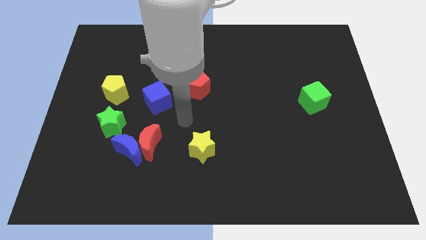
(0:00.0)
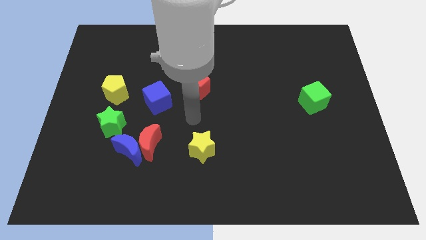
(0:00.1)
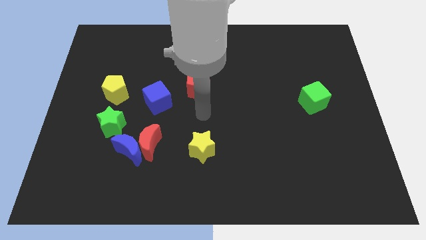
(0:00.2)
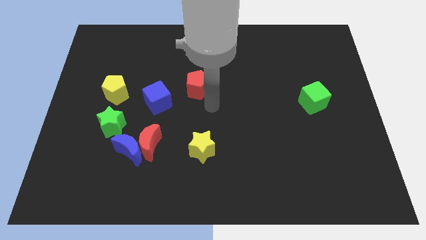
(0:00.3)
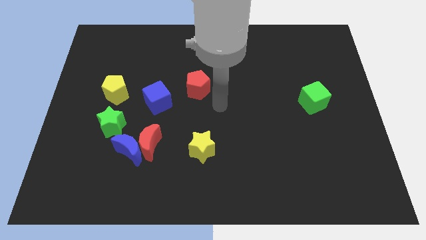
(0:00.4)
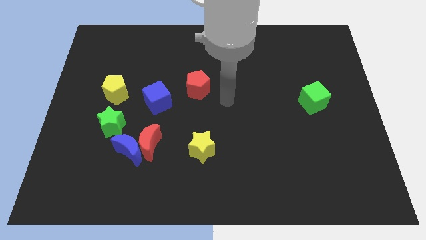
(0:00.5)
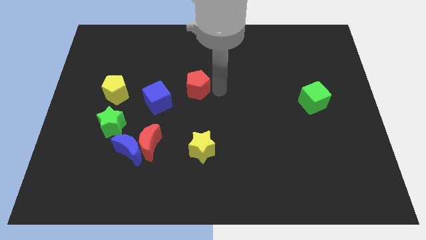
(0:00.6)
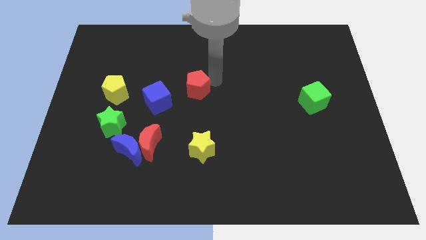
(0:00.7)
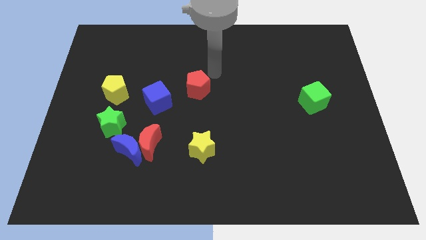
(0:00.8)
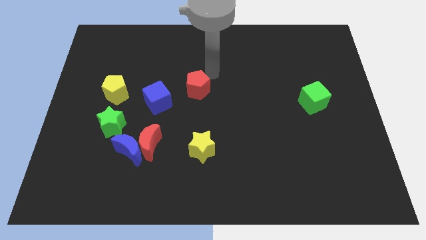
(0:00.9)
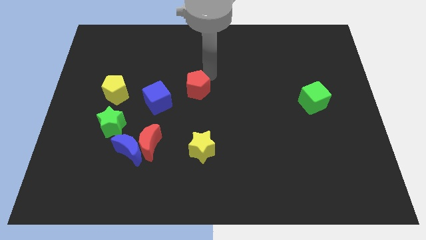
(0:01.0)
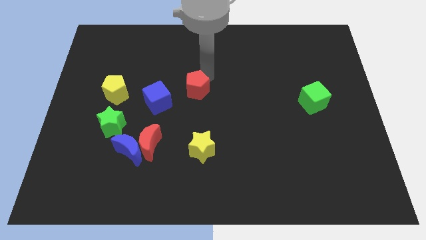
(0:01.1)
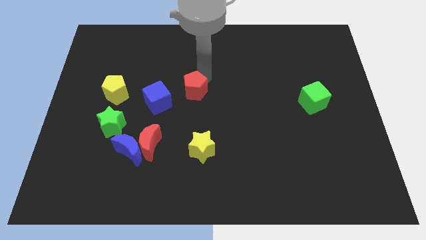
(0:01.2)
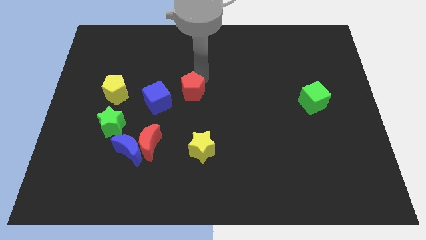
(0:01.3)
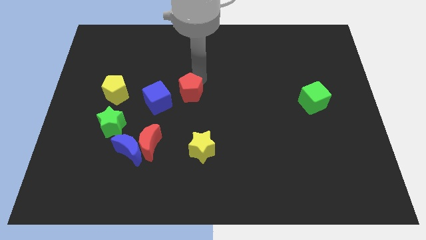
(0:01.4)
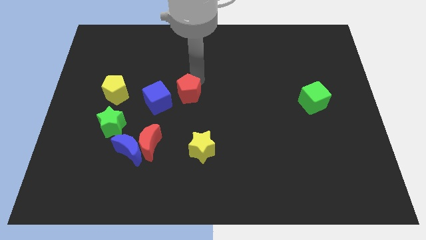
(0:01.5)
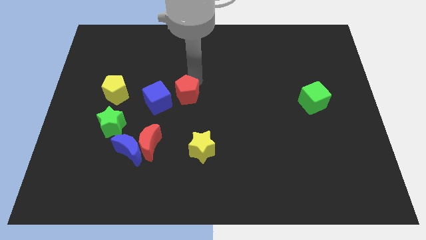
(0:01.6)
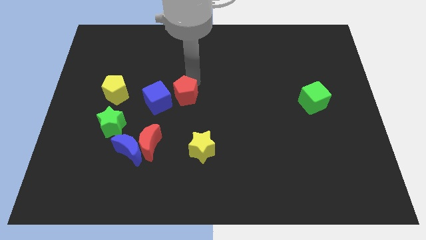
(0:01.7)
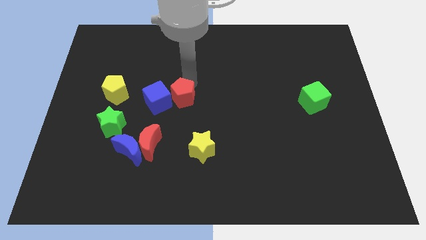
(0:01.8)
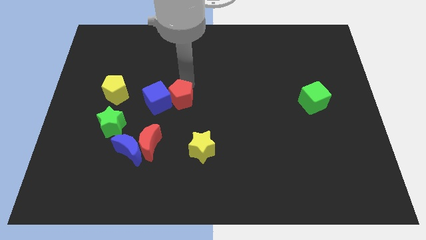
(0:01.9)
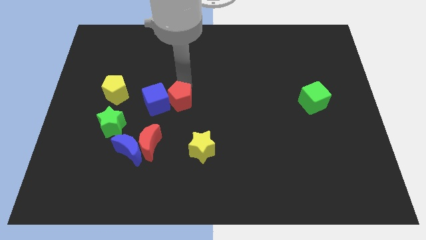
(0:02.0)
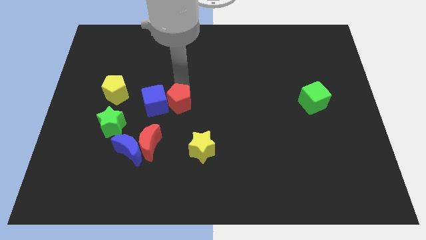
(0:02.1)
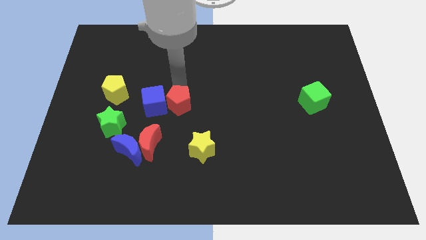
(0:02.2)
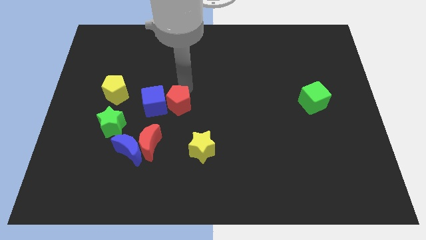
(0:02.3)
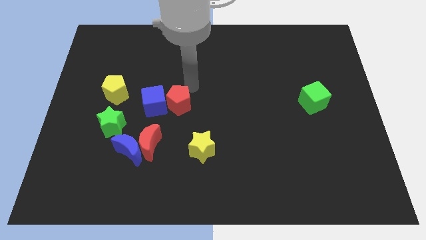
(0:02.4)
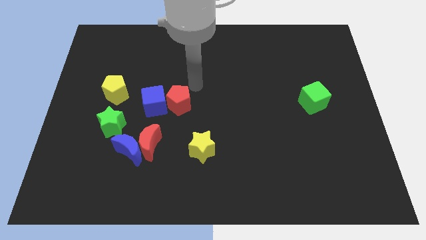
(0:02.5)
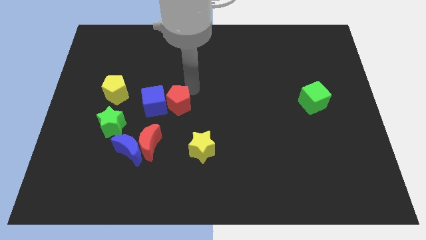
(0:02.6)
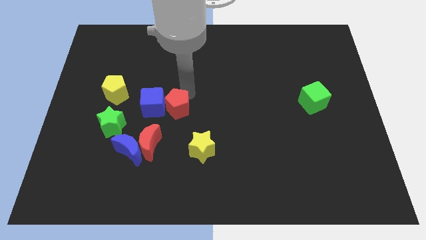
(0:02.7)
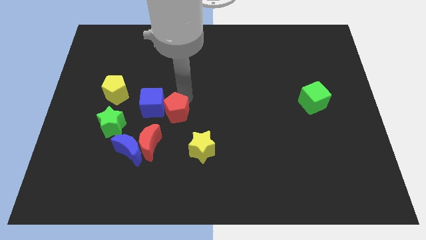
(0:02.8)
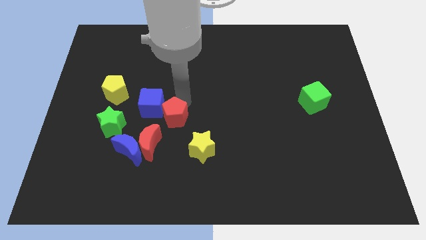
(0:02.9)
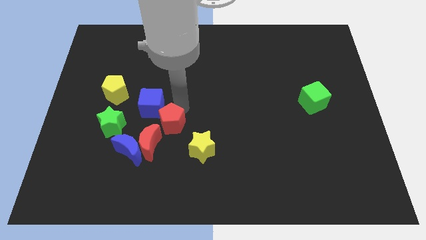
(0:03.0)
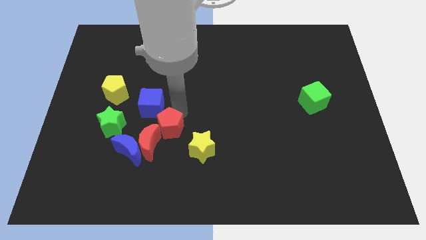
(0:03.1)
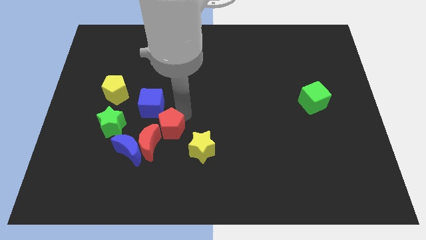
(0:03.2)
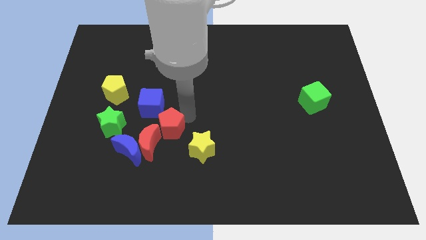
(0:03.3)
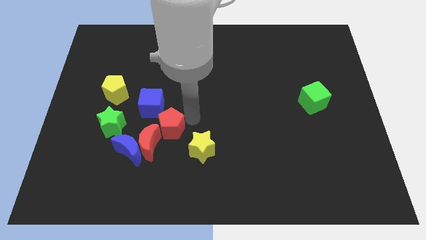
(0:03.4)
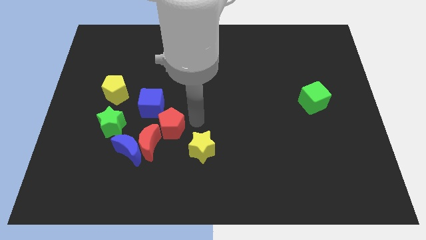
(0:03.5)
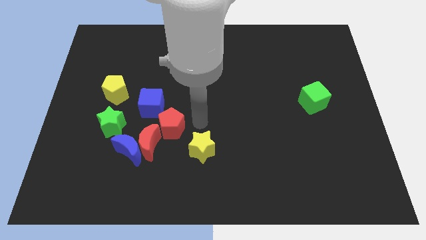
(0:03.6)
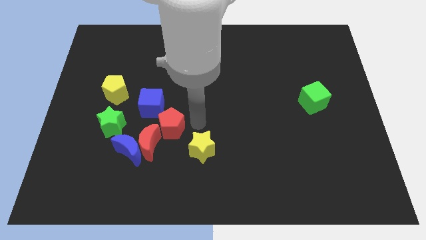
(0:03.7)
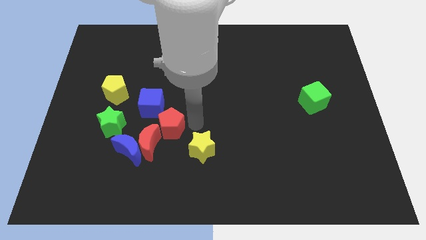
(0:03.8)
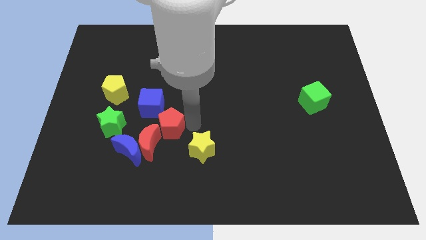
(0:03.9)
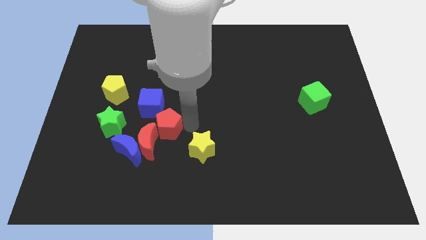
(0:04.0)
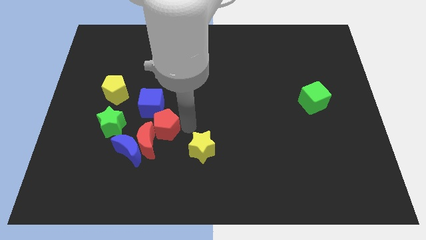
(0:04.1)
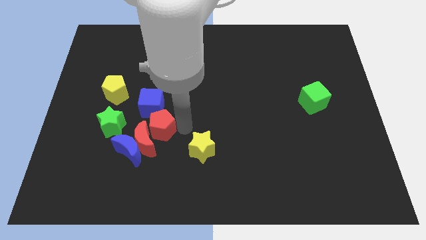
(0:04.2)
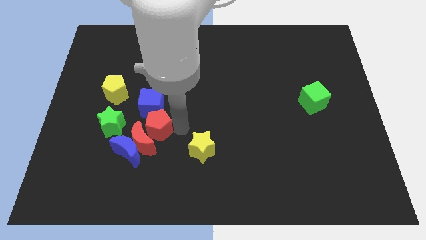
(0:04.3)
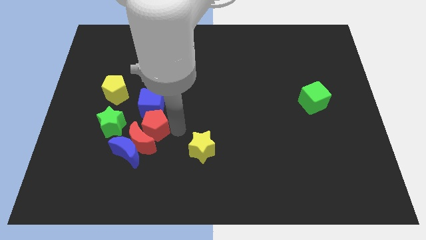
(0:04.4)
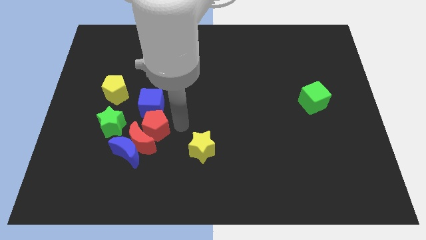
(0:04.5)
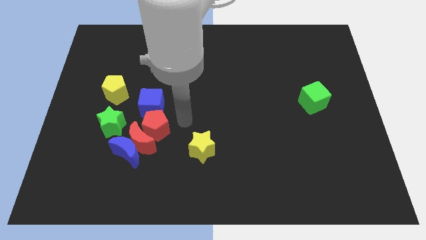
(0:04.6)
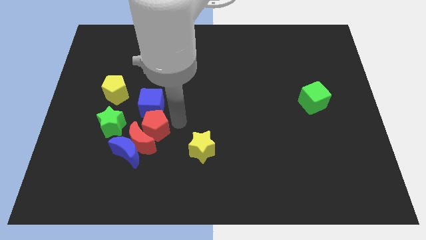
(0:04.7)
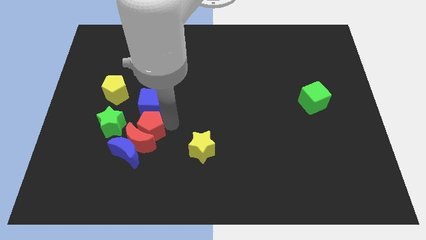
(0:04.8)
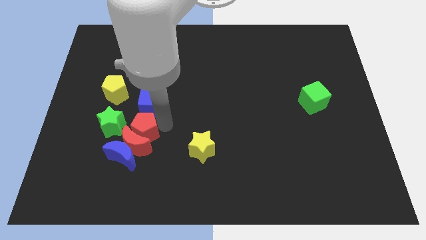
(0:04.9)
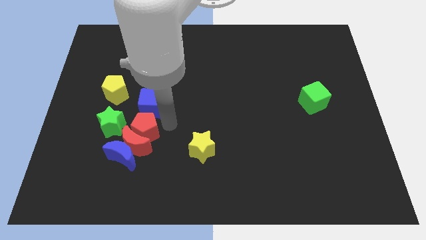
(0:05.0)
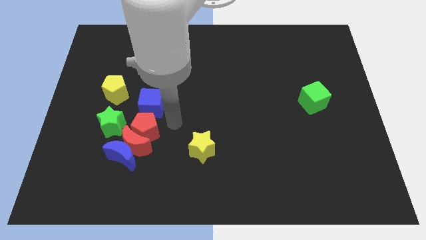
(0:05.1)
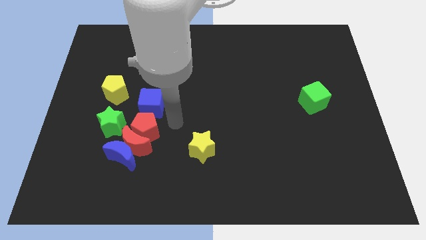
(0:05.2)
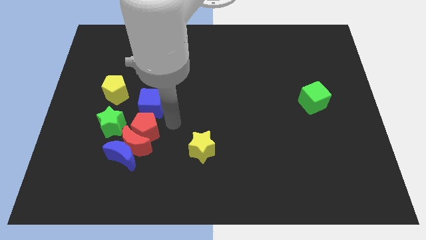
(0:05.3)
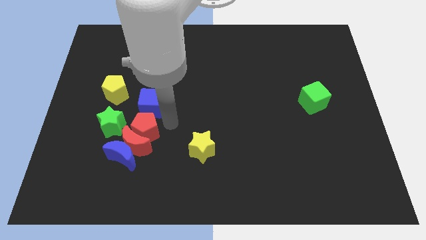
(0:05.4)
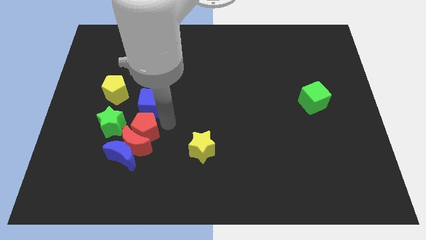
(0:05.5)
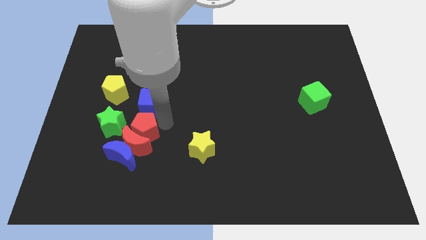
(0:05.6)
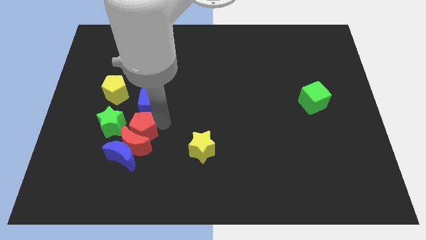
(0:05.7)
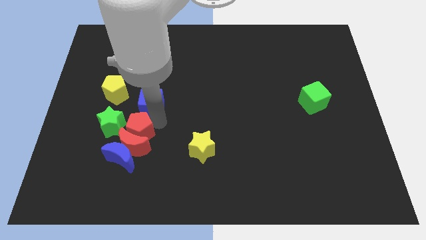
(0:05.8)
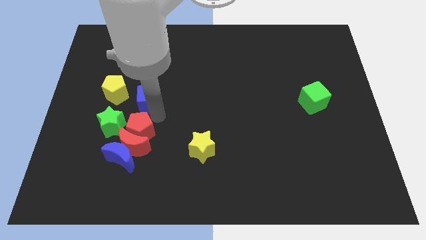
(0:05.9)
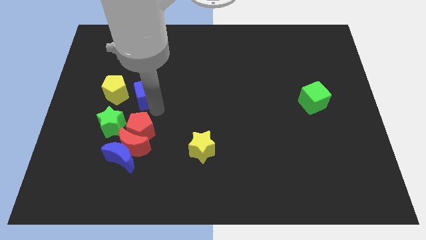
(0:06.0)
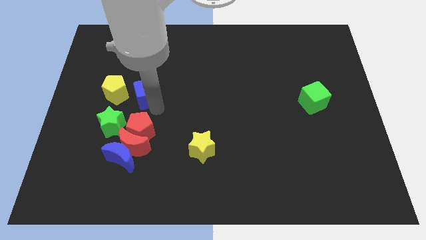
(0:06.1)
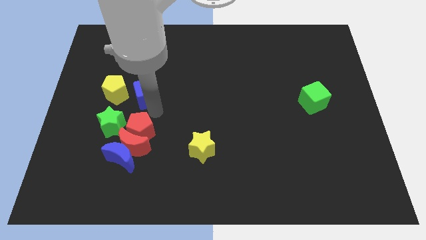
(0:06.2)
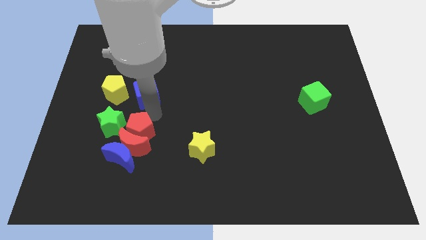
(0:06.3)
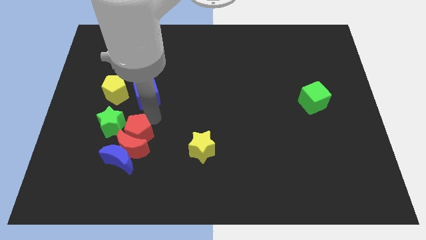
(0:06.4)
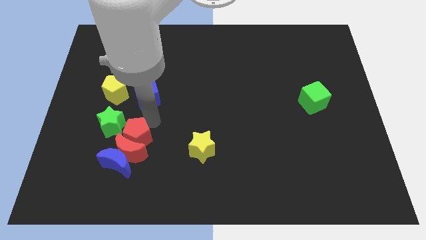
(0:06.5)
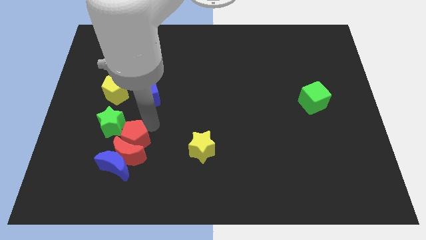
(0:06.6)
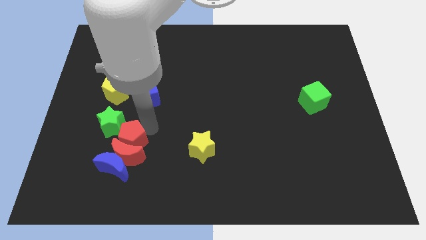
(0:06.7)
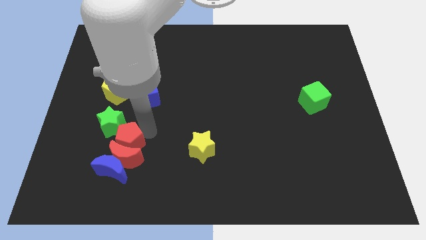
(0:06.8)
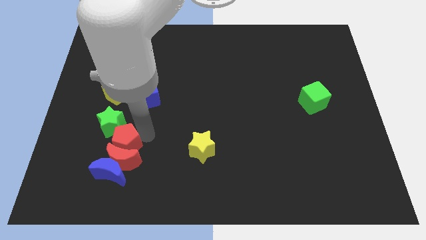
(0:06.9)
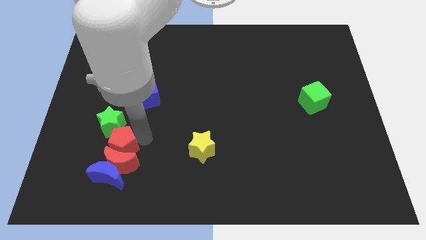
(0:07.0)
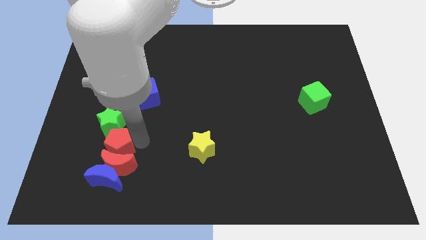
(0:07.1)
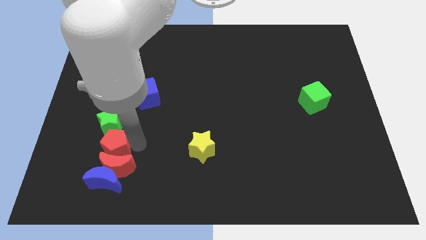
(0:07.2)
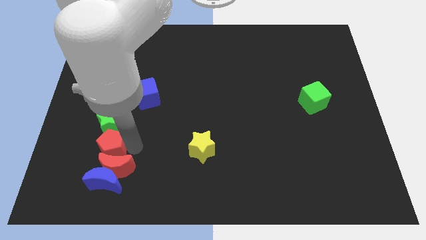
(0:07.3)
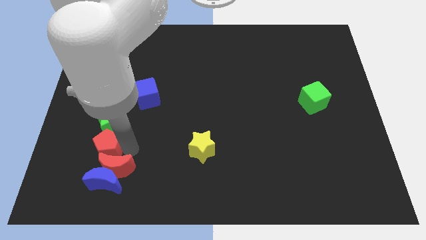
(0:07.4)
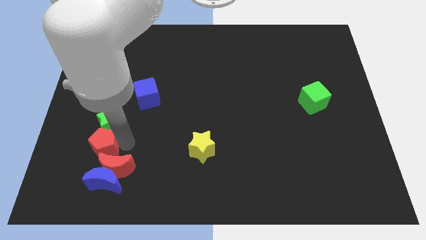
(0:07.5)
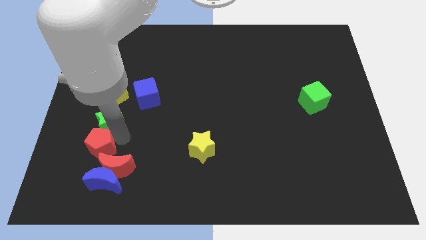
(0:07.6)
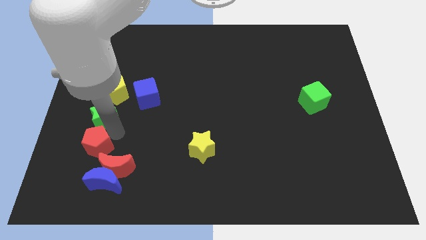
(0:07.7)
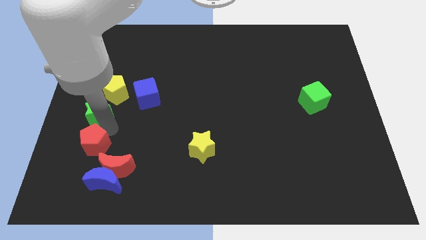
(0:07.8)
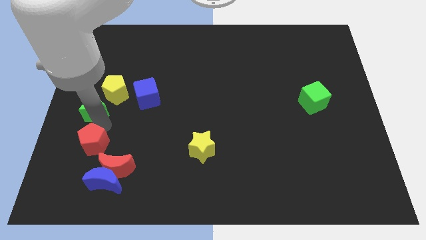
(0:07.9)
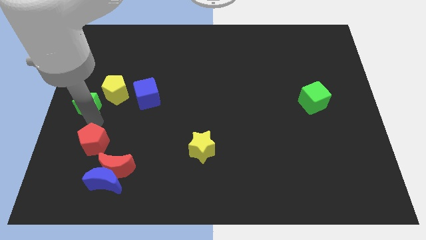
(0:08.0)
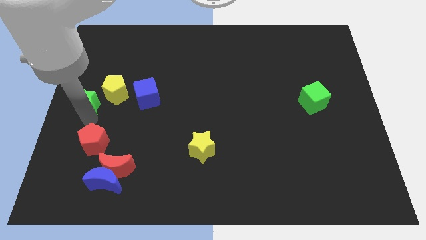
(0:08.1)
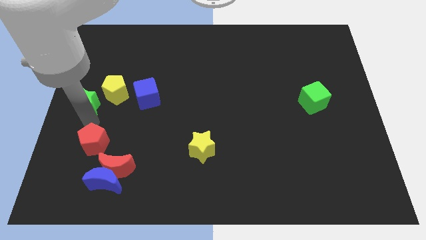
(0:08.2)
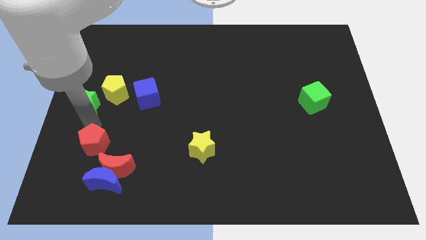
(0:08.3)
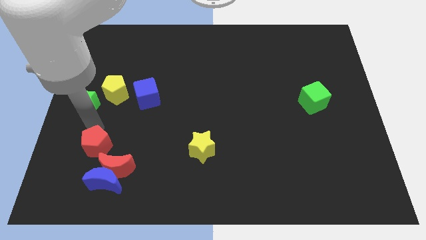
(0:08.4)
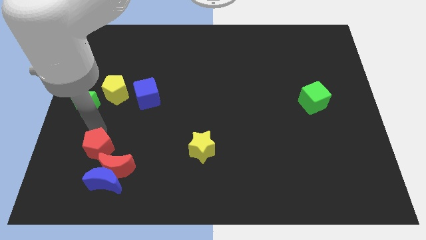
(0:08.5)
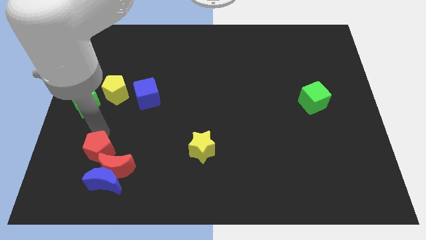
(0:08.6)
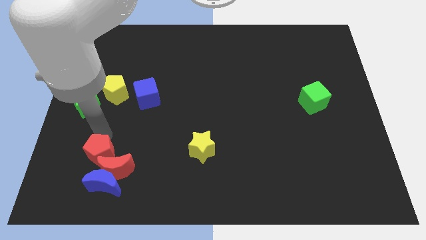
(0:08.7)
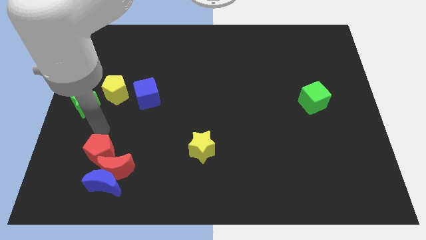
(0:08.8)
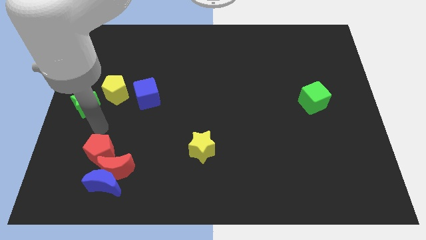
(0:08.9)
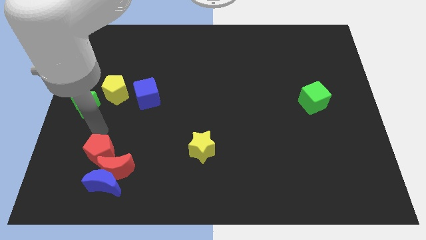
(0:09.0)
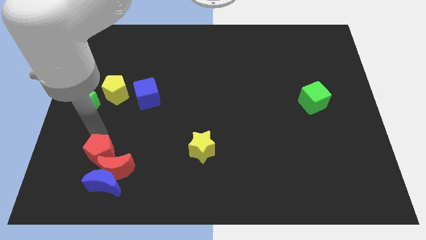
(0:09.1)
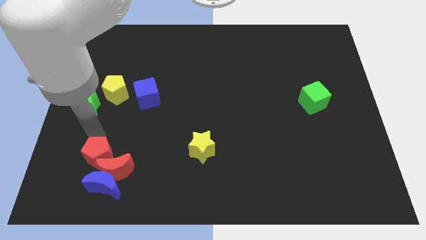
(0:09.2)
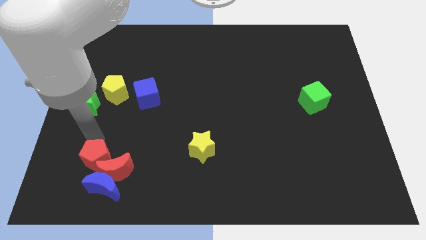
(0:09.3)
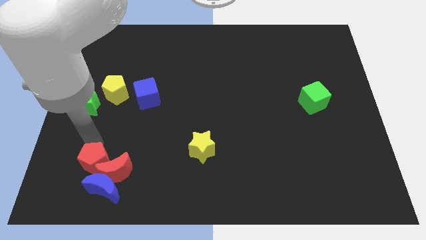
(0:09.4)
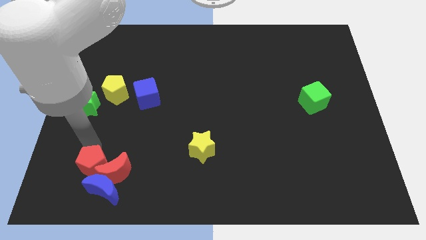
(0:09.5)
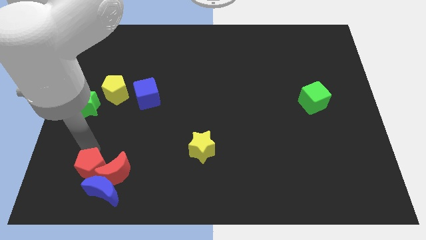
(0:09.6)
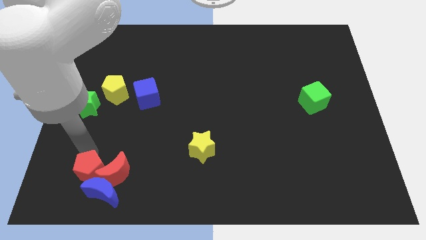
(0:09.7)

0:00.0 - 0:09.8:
push the red pentagon towards the blue moon
